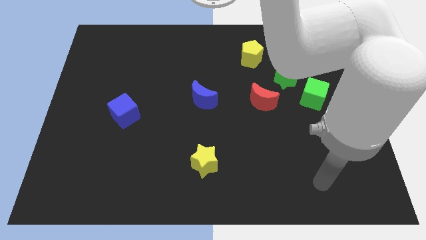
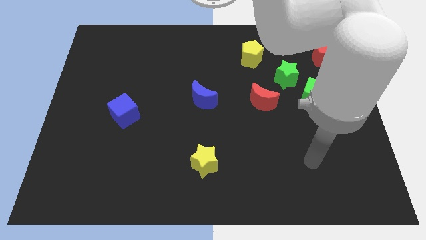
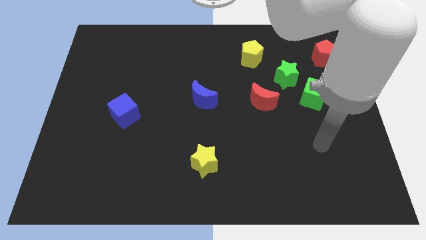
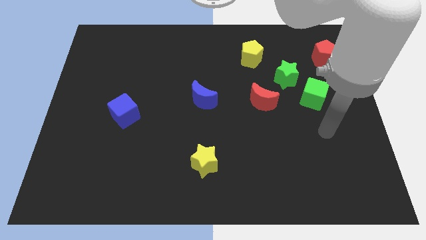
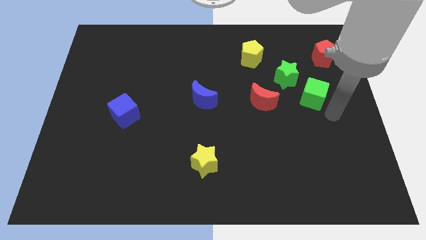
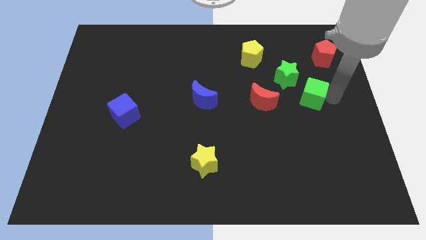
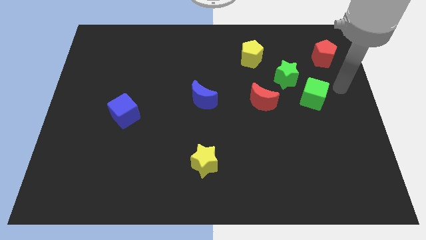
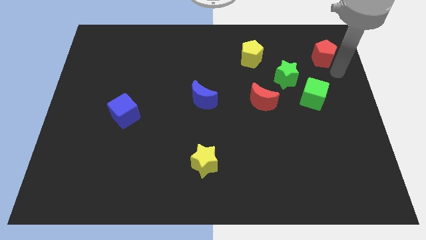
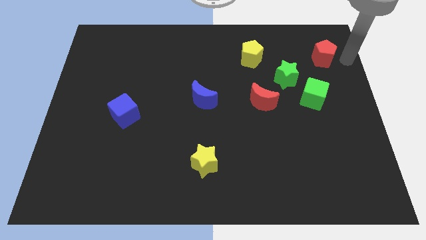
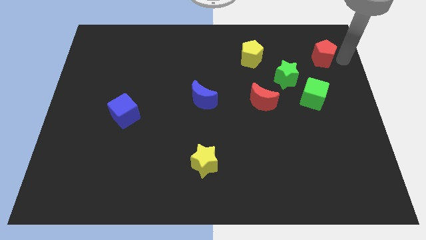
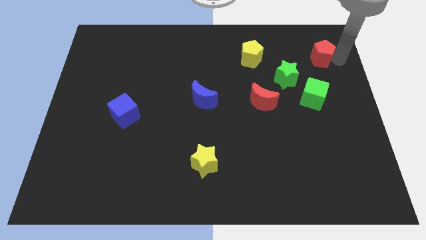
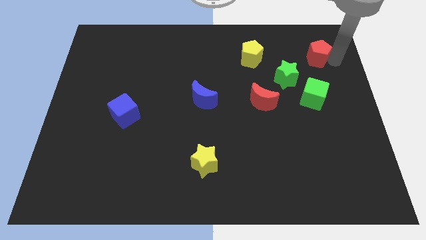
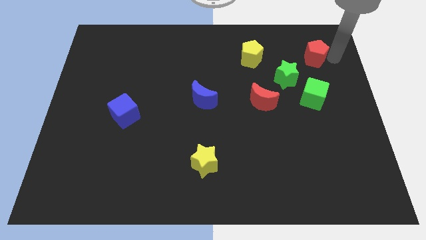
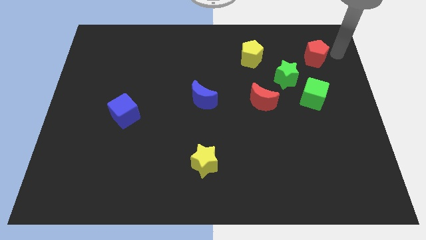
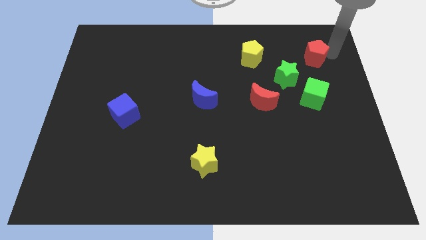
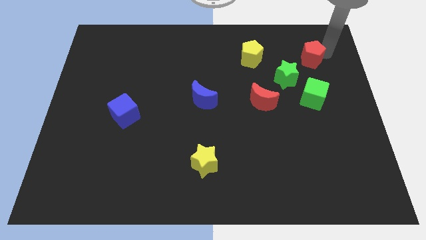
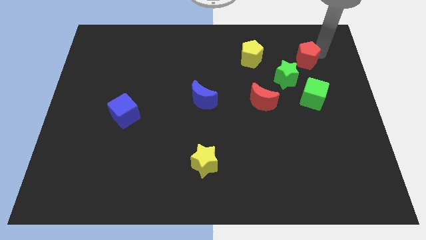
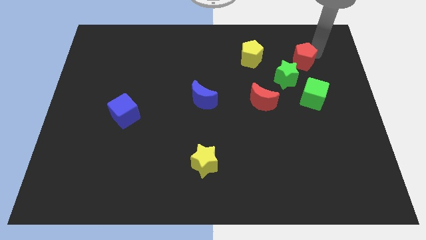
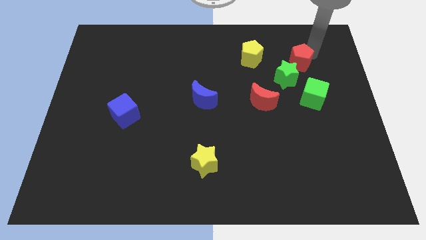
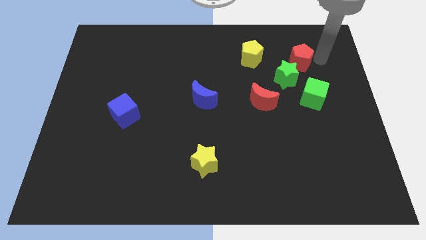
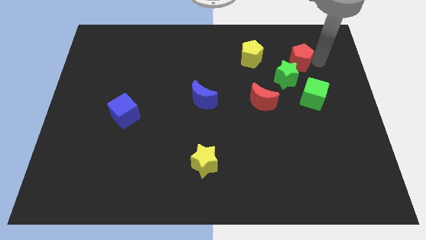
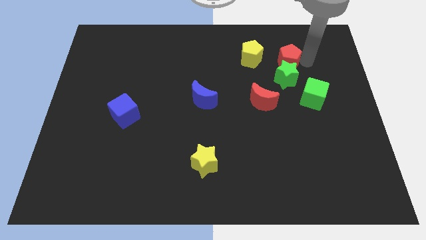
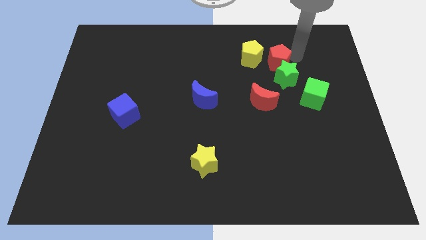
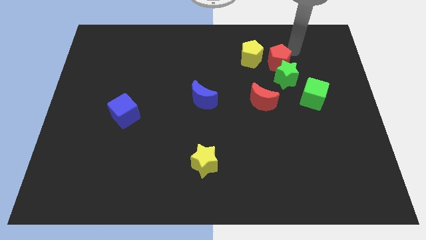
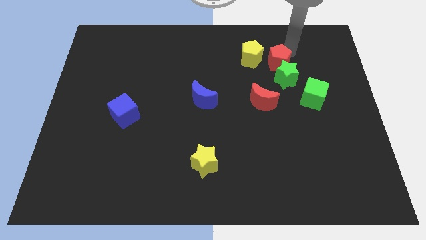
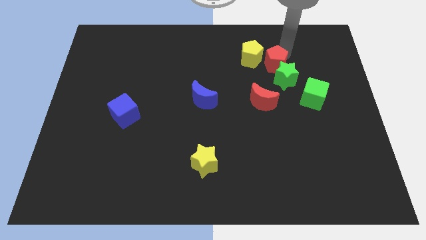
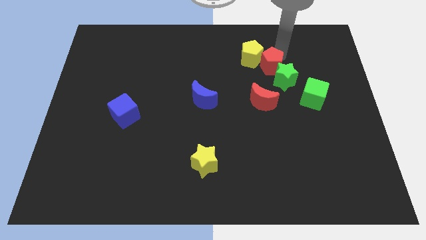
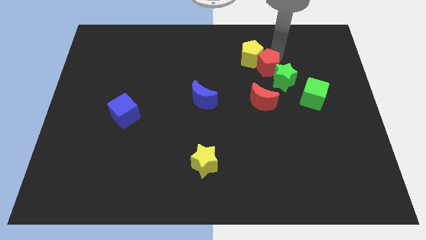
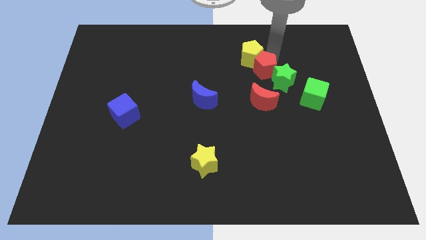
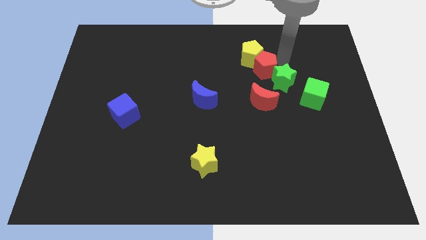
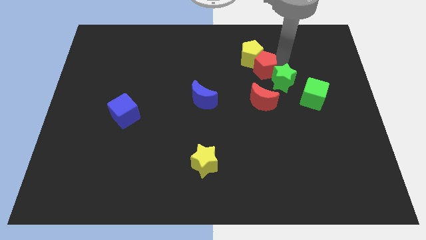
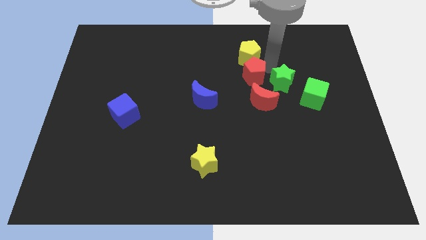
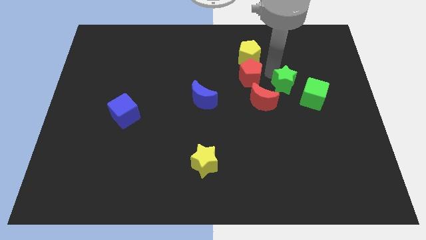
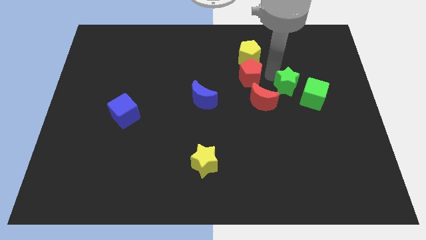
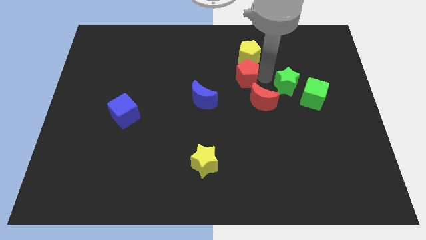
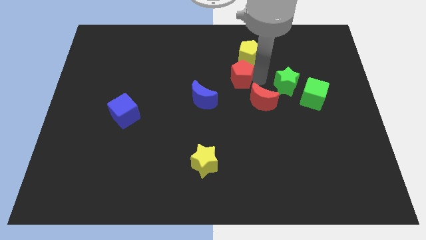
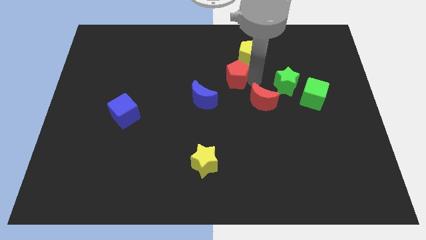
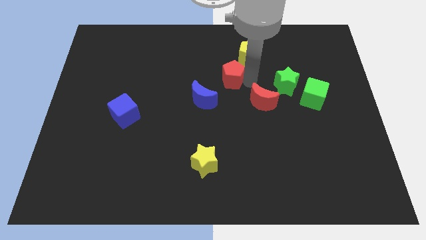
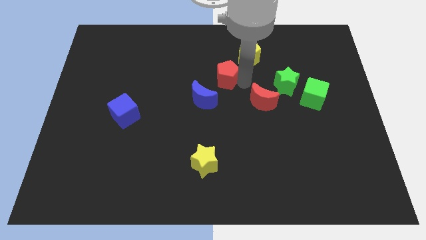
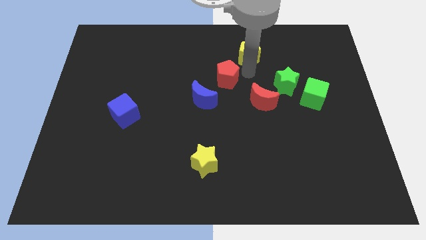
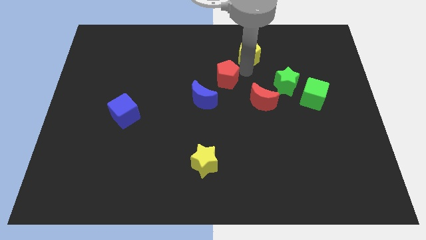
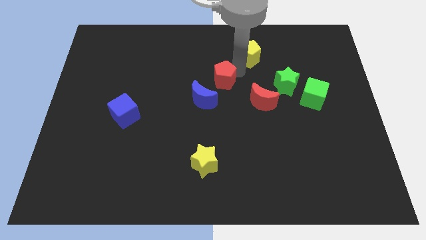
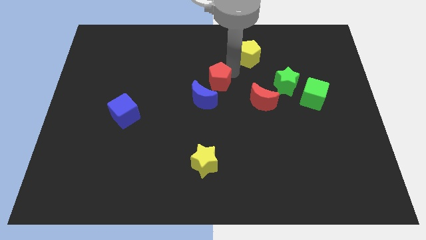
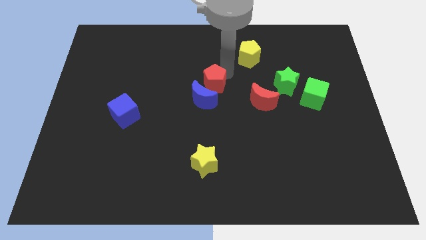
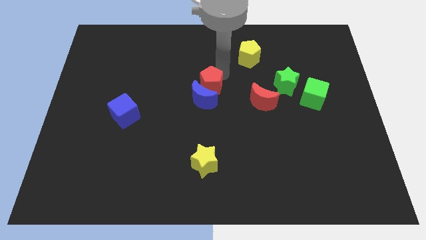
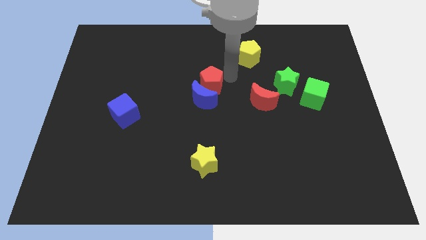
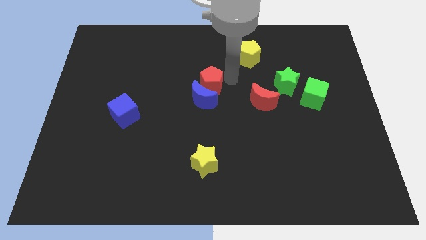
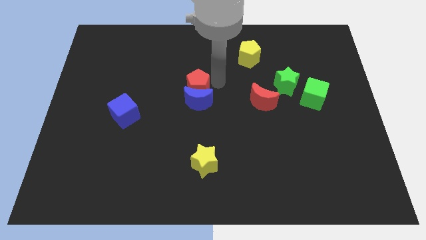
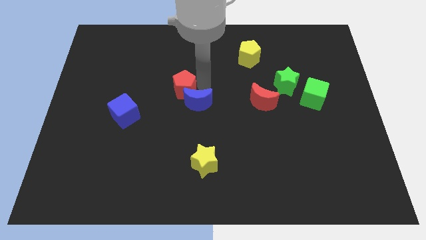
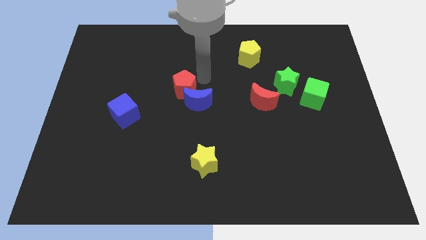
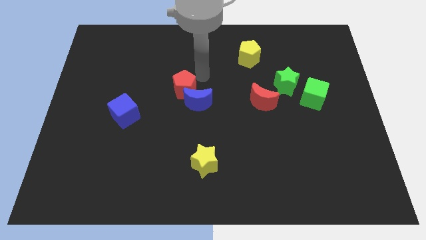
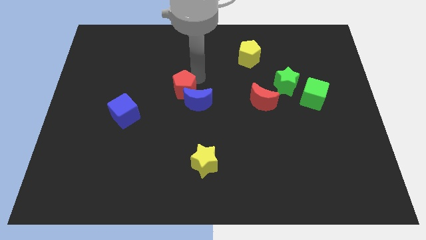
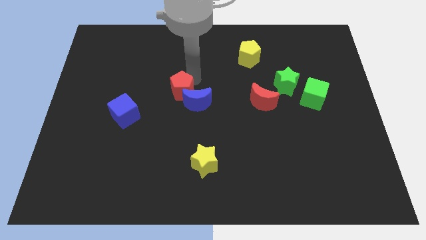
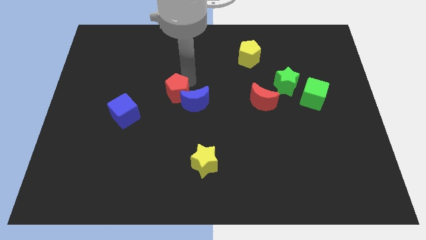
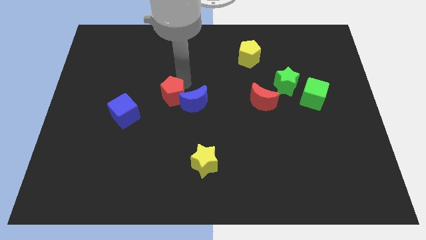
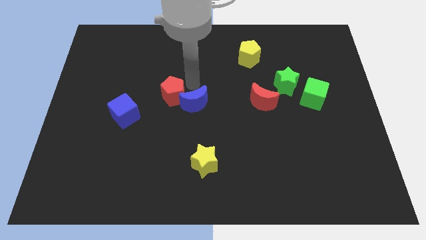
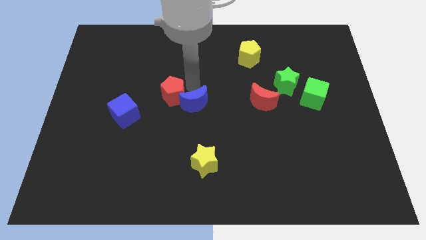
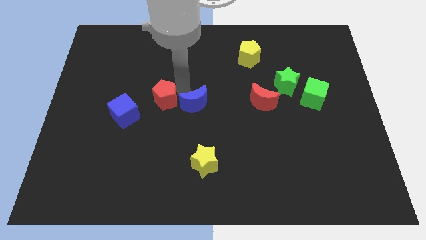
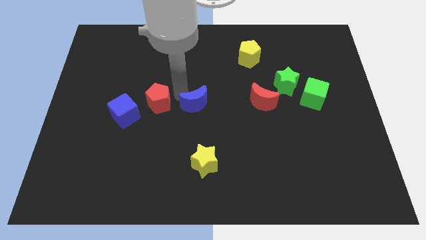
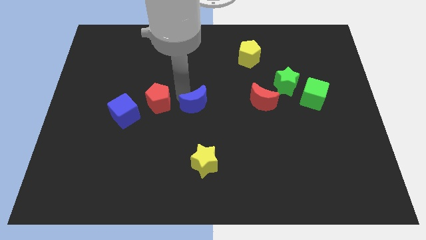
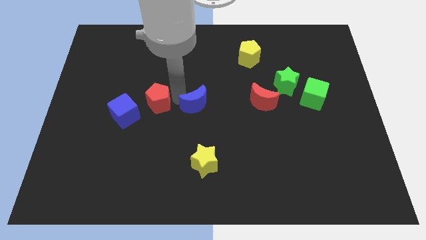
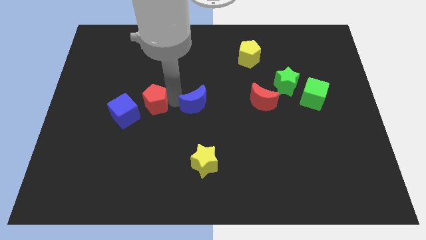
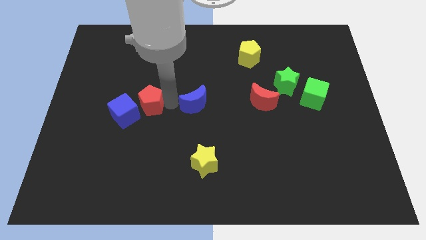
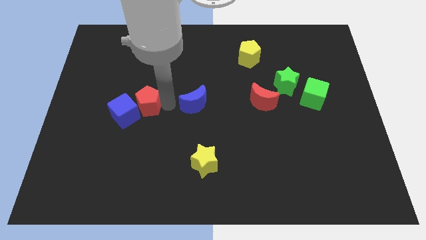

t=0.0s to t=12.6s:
slide the red pentagon to the blue cube

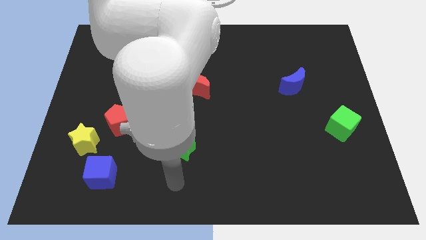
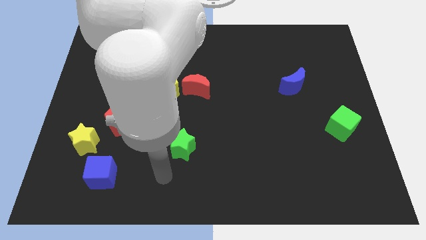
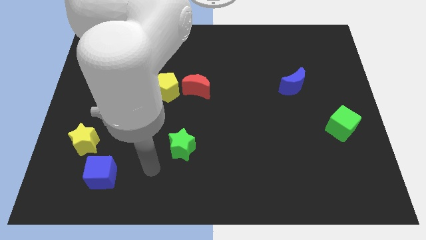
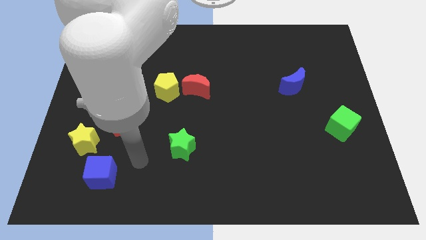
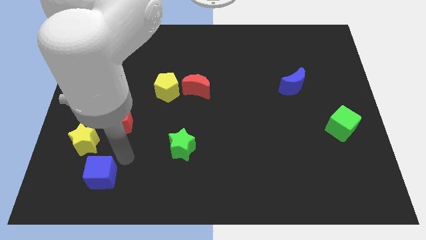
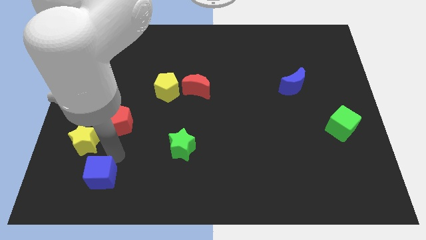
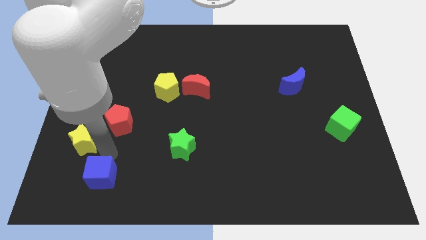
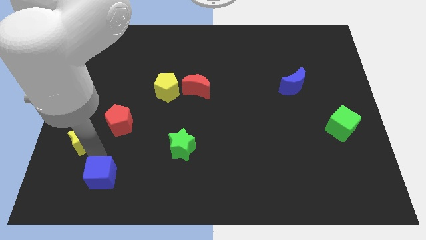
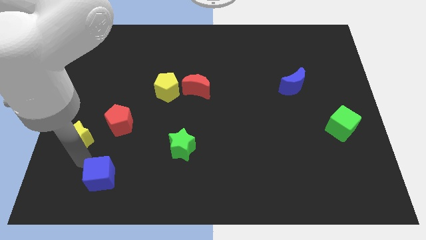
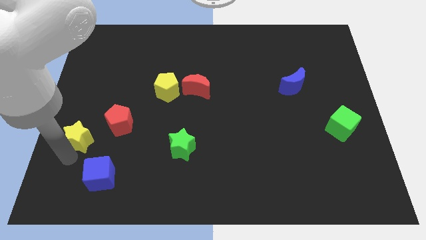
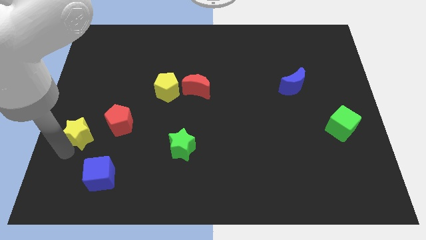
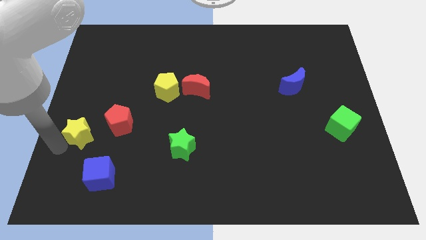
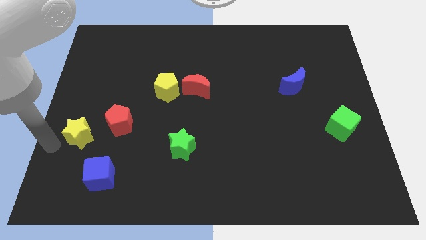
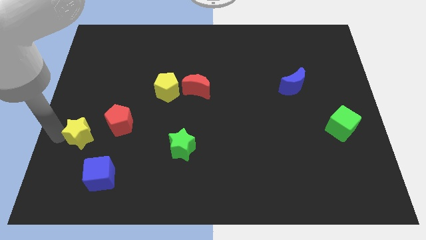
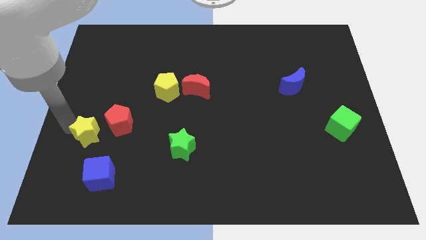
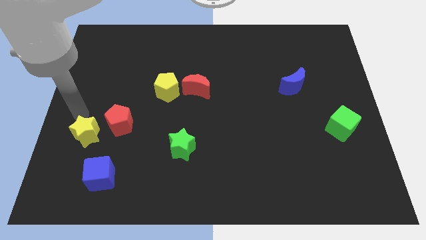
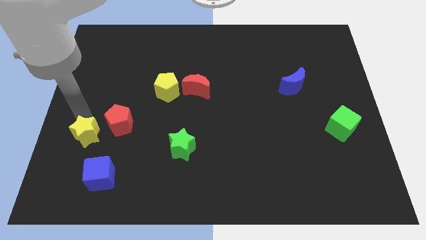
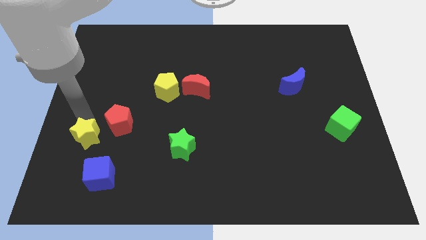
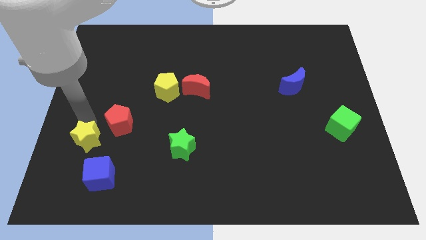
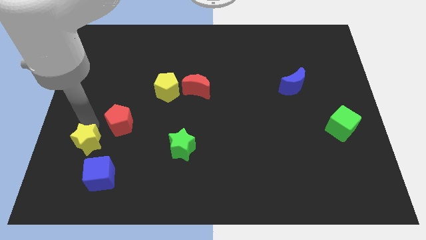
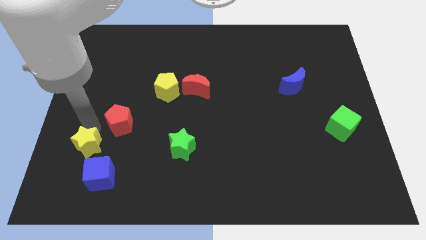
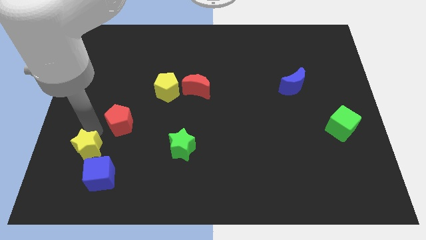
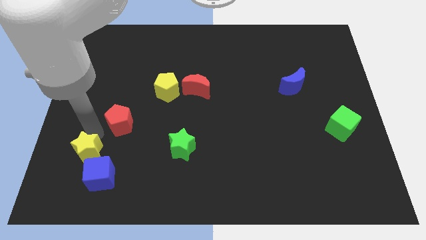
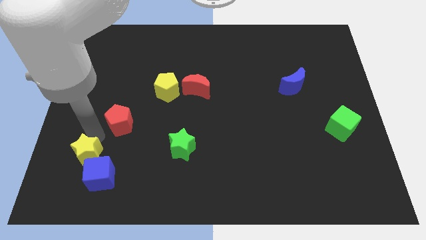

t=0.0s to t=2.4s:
move the yellow star towards the blue cube
